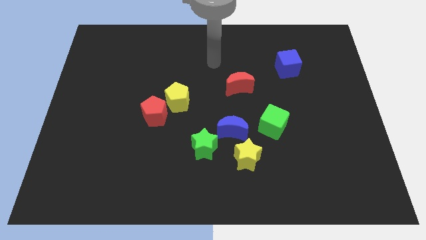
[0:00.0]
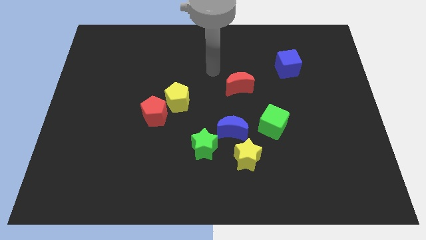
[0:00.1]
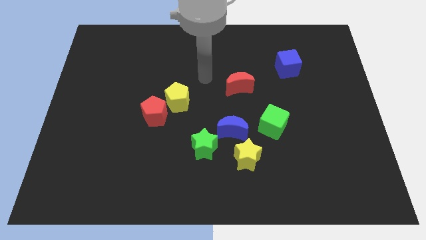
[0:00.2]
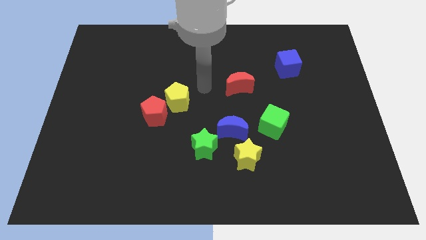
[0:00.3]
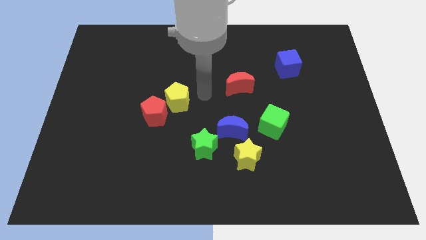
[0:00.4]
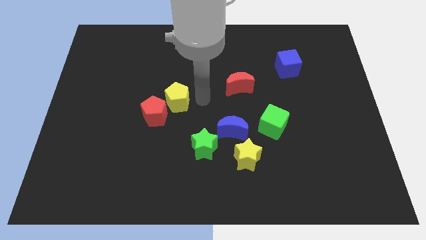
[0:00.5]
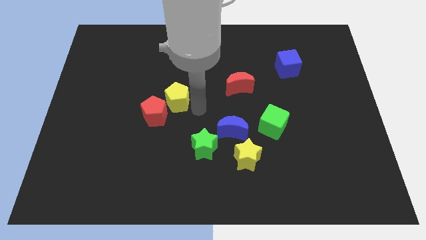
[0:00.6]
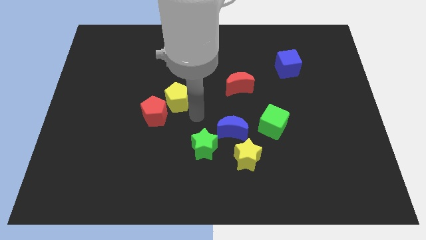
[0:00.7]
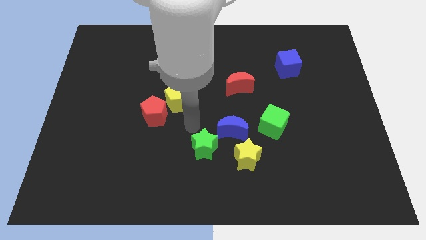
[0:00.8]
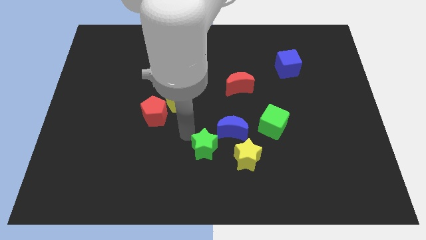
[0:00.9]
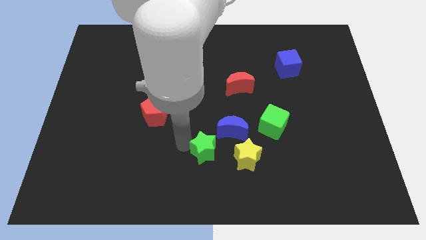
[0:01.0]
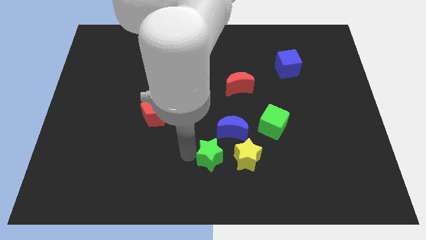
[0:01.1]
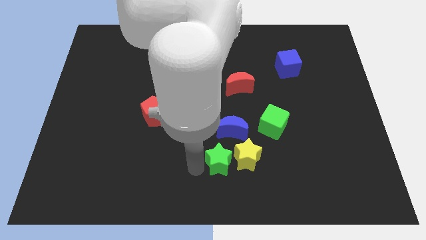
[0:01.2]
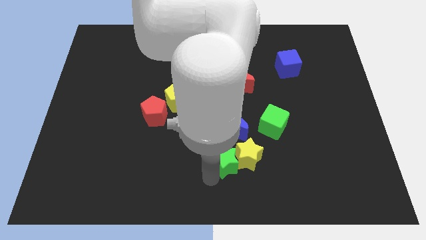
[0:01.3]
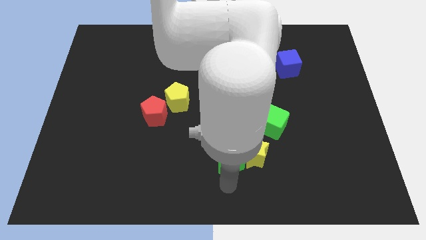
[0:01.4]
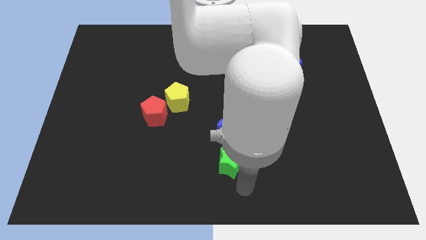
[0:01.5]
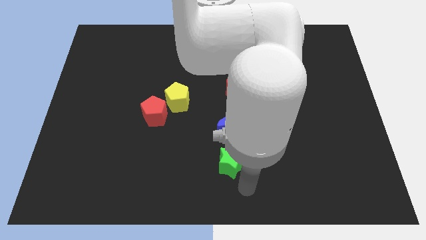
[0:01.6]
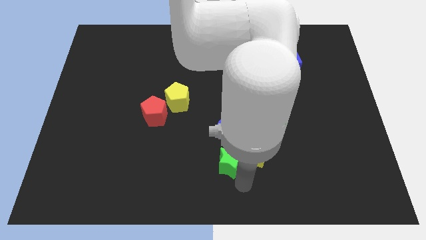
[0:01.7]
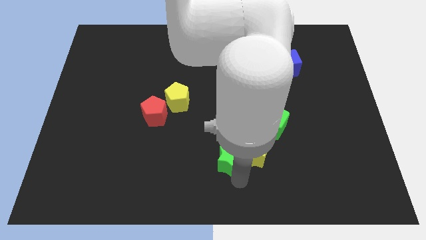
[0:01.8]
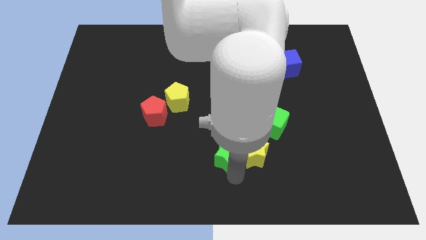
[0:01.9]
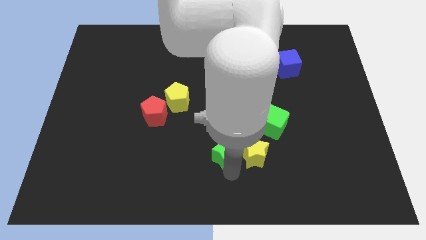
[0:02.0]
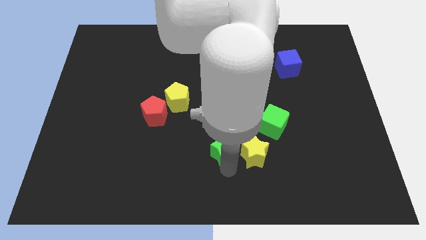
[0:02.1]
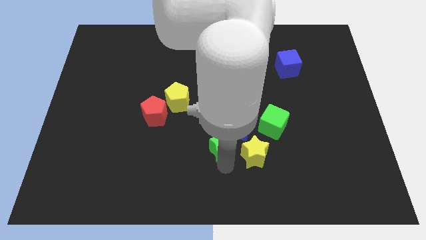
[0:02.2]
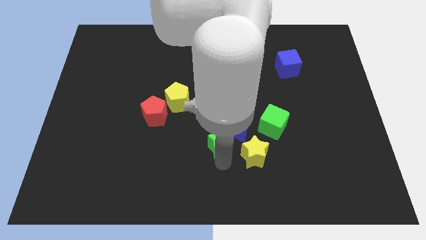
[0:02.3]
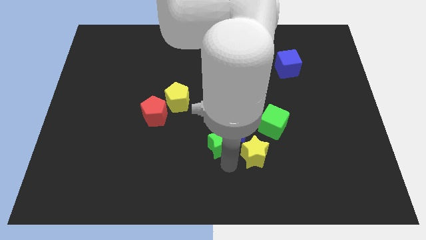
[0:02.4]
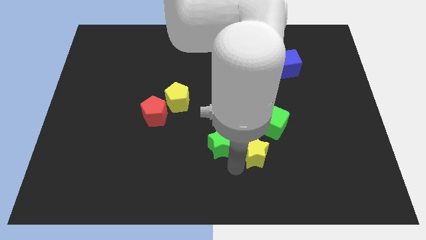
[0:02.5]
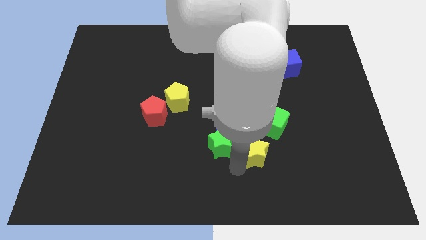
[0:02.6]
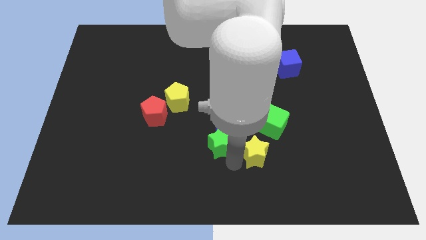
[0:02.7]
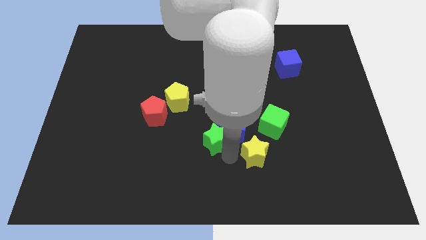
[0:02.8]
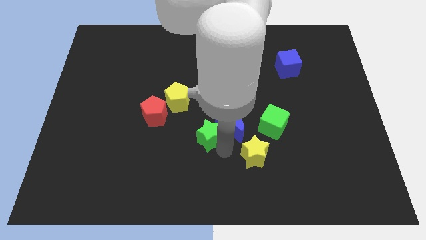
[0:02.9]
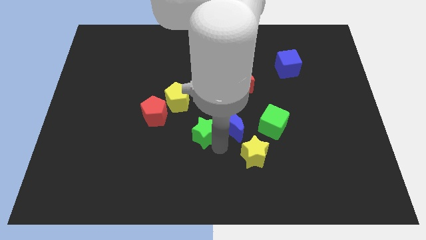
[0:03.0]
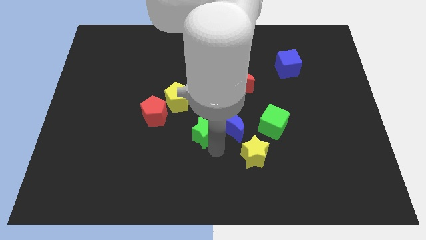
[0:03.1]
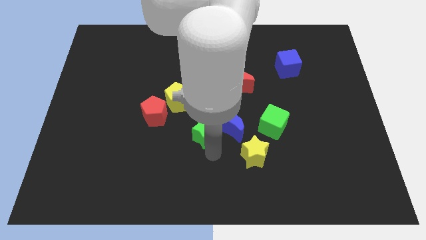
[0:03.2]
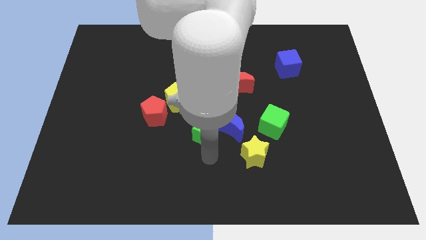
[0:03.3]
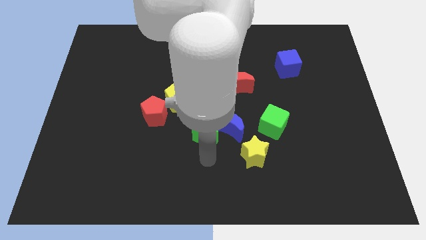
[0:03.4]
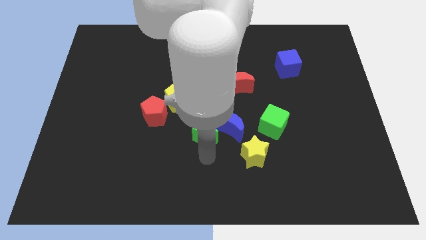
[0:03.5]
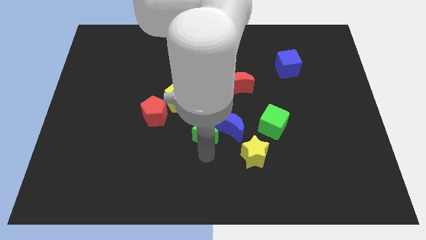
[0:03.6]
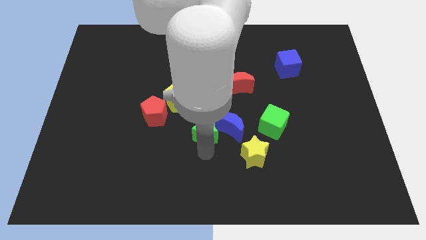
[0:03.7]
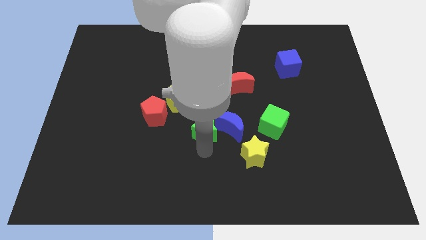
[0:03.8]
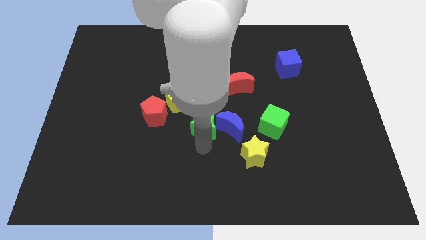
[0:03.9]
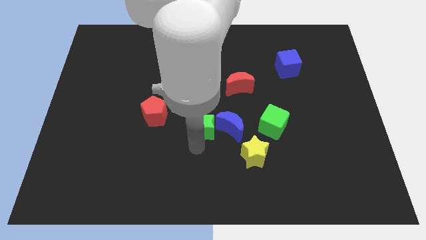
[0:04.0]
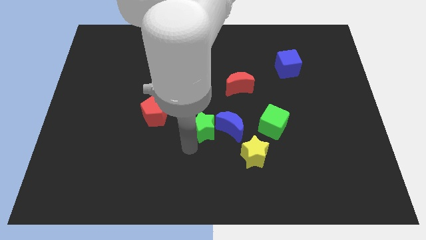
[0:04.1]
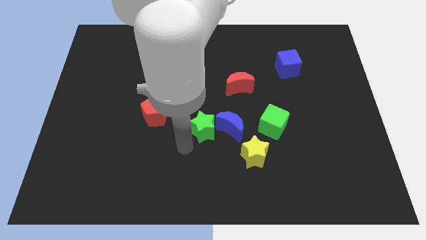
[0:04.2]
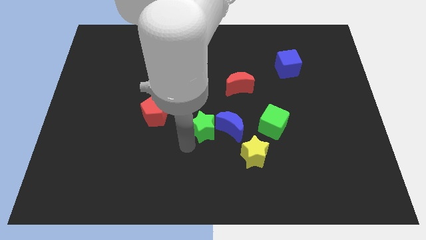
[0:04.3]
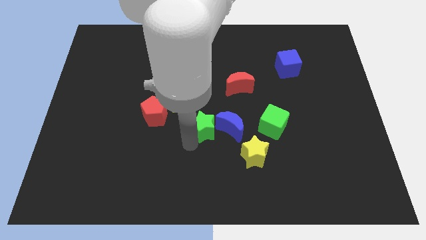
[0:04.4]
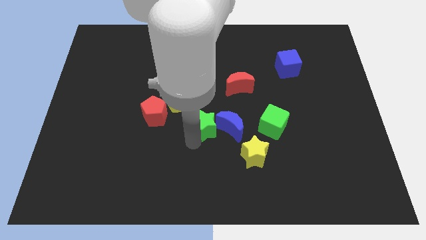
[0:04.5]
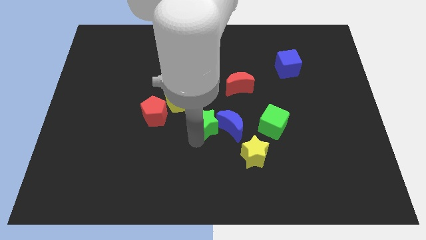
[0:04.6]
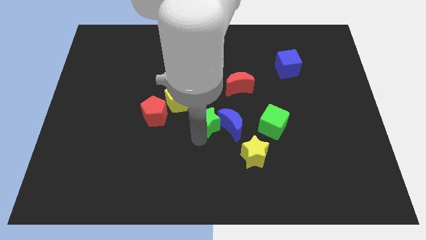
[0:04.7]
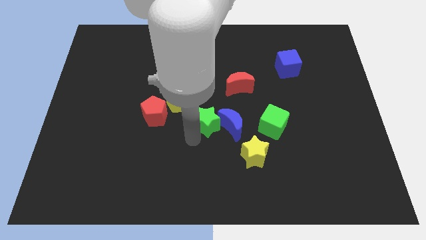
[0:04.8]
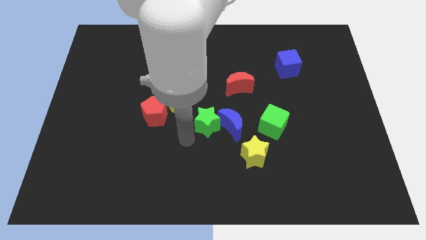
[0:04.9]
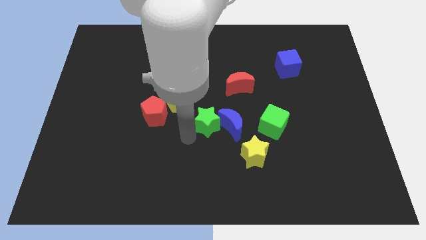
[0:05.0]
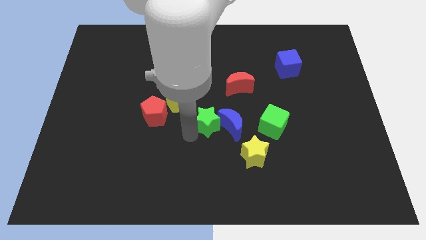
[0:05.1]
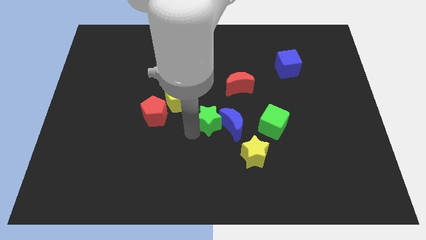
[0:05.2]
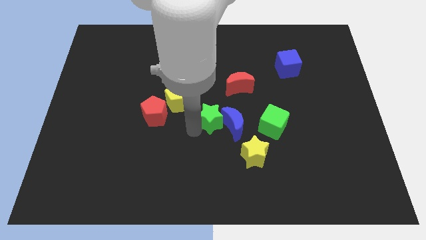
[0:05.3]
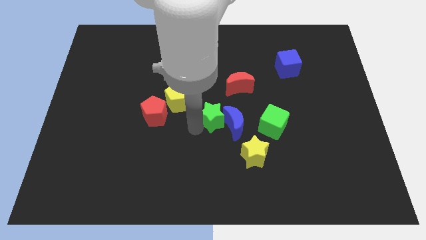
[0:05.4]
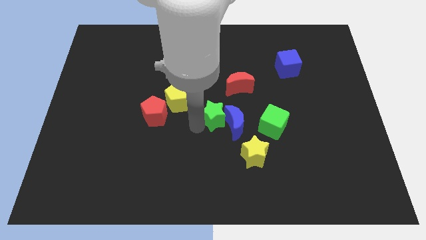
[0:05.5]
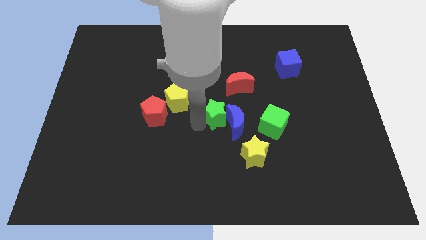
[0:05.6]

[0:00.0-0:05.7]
move the green star slightly diagonally up and to the right

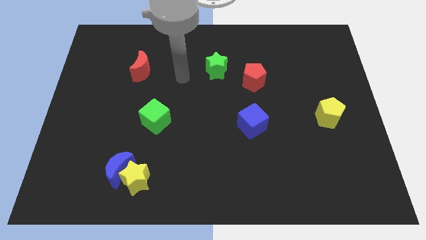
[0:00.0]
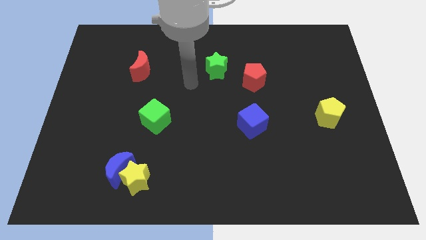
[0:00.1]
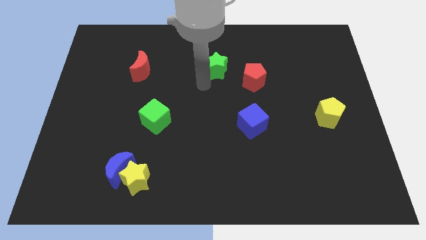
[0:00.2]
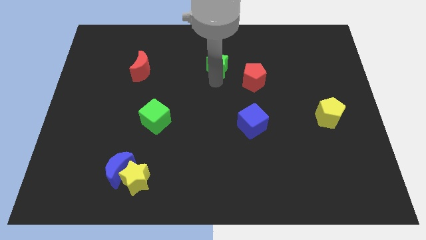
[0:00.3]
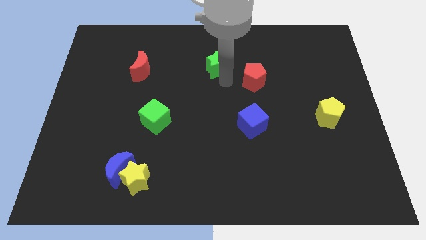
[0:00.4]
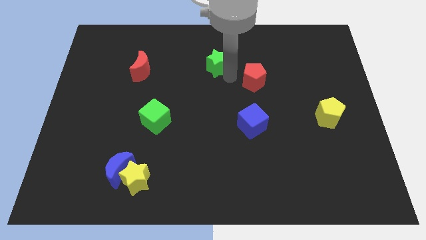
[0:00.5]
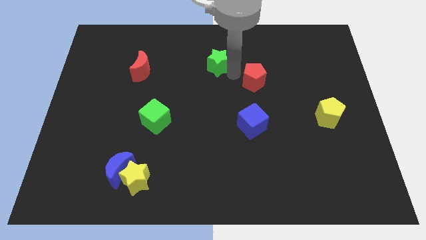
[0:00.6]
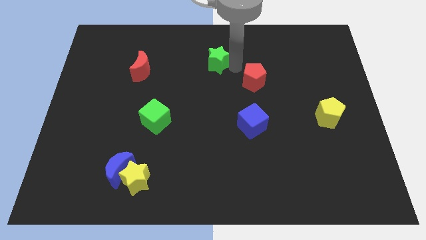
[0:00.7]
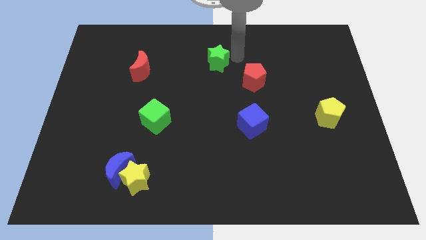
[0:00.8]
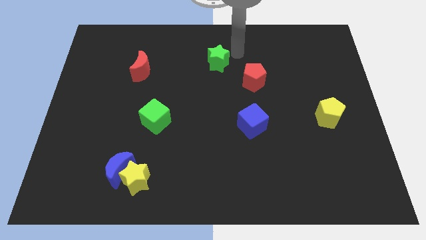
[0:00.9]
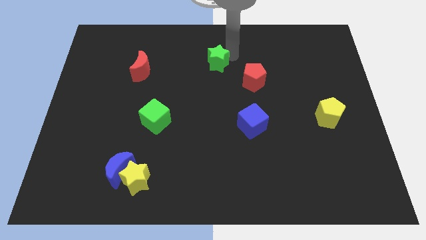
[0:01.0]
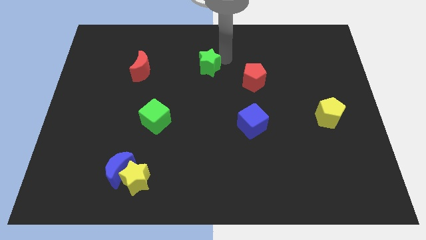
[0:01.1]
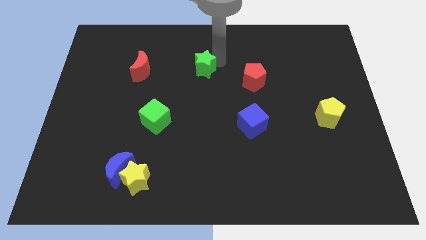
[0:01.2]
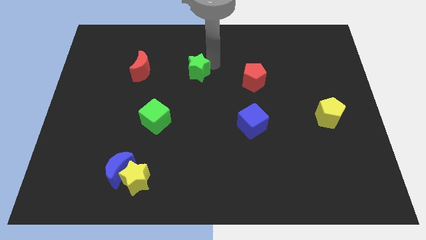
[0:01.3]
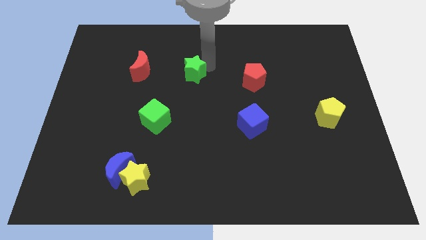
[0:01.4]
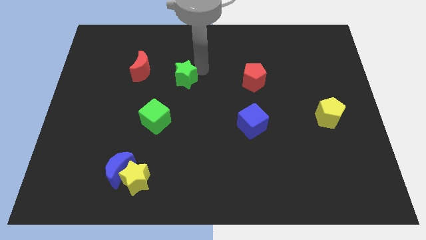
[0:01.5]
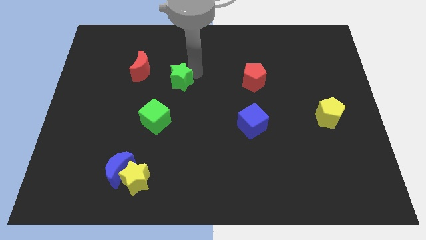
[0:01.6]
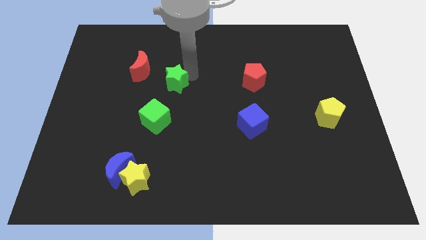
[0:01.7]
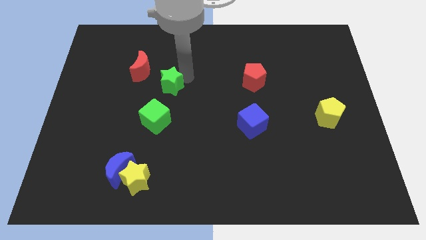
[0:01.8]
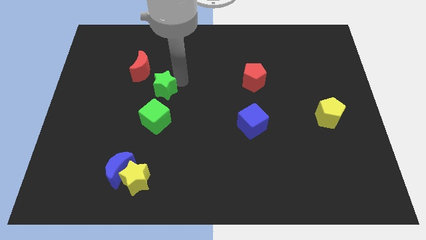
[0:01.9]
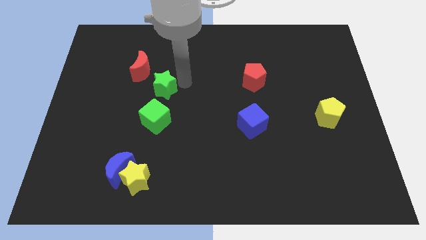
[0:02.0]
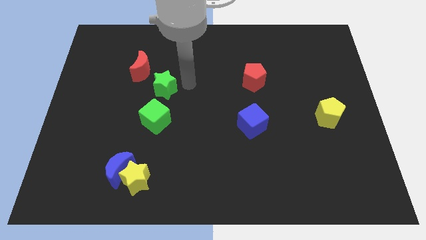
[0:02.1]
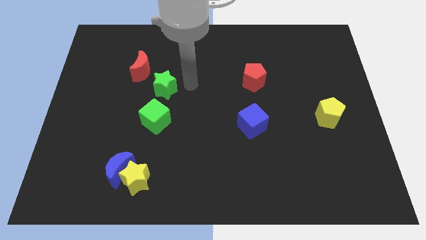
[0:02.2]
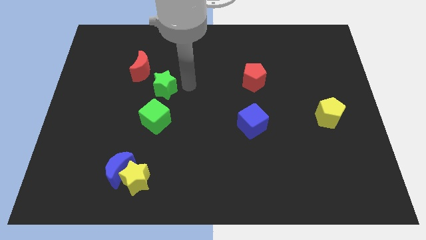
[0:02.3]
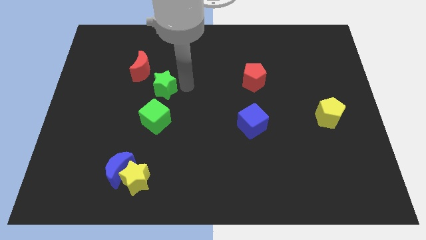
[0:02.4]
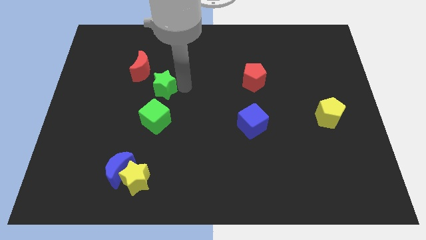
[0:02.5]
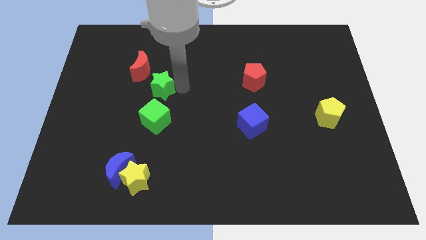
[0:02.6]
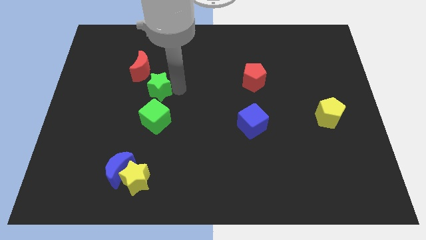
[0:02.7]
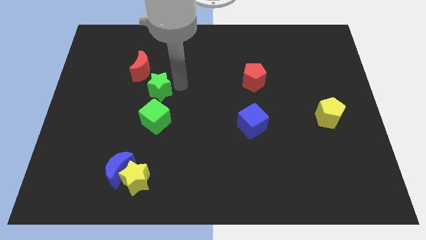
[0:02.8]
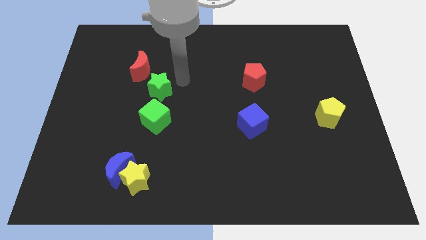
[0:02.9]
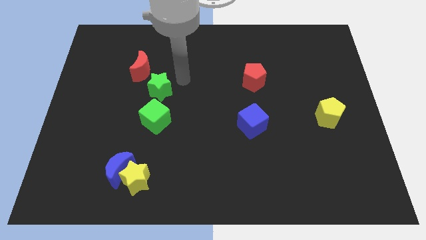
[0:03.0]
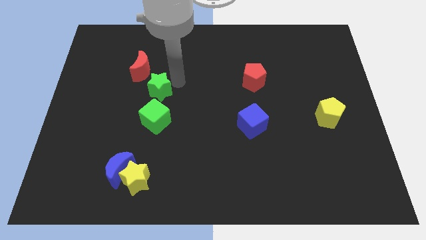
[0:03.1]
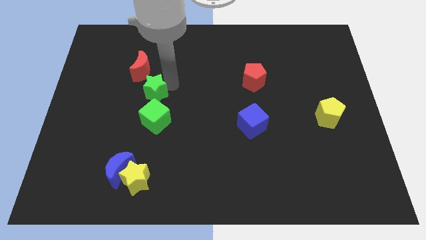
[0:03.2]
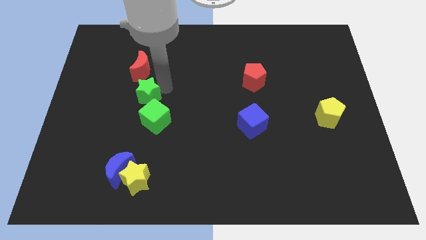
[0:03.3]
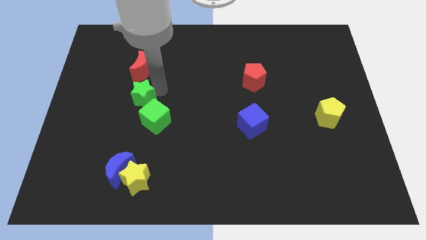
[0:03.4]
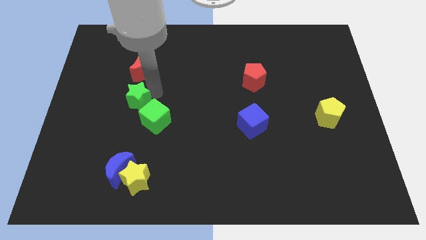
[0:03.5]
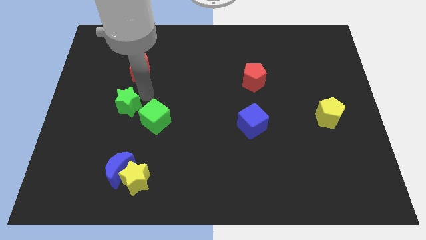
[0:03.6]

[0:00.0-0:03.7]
slide the green star down and left
